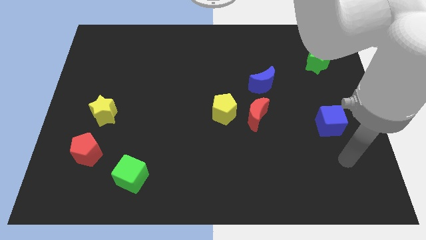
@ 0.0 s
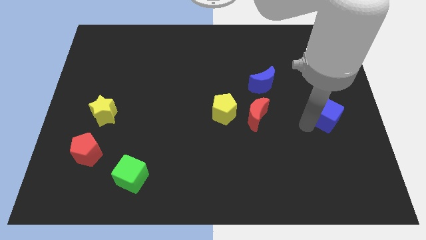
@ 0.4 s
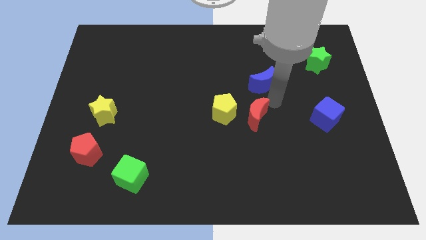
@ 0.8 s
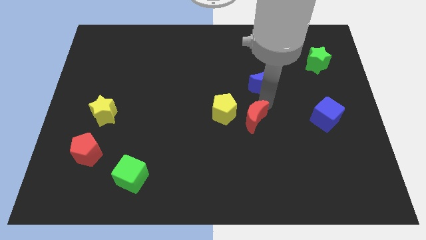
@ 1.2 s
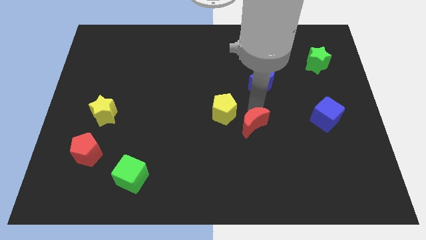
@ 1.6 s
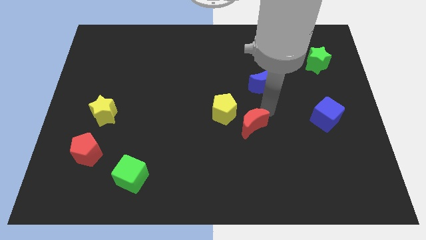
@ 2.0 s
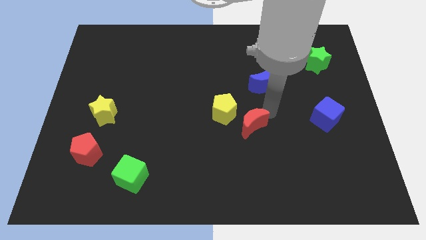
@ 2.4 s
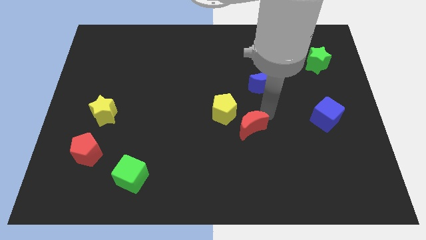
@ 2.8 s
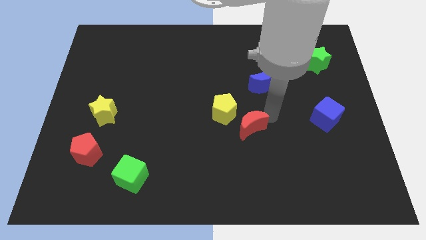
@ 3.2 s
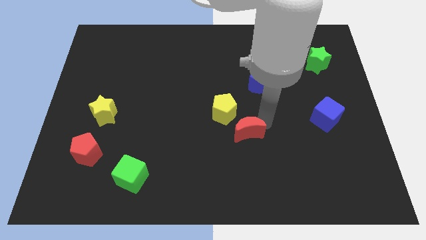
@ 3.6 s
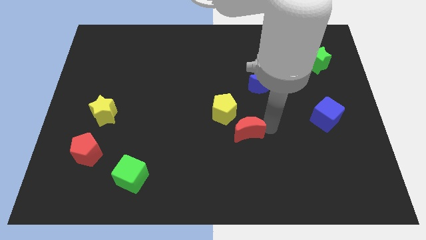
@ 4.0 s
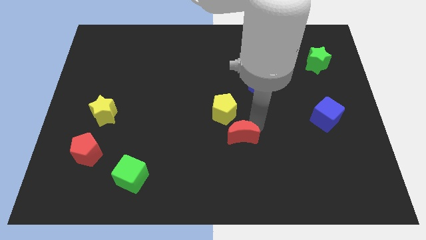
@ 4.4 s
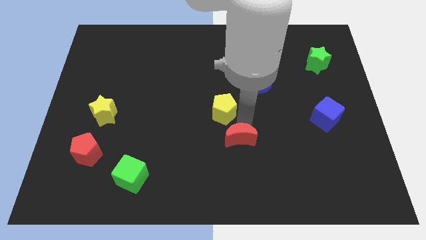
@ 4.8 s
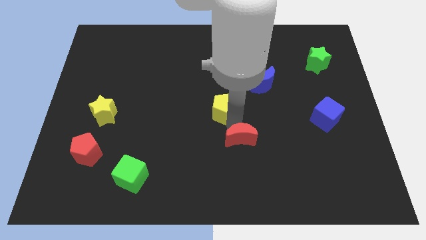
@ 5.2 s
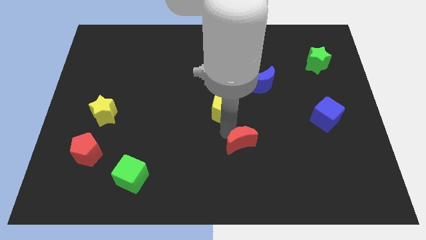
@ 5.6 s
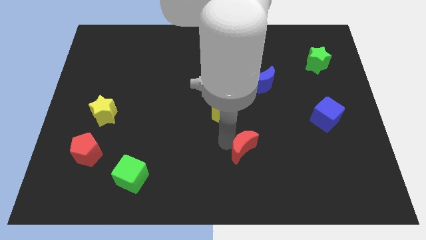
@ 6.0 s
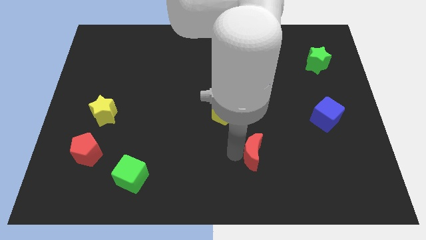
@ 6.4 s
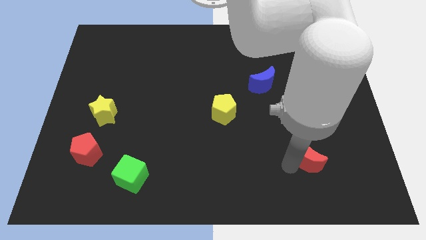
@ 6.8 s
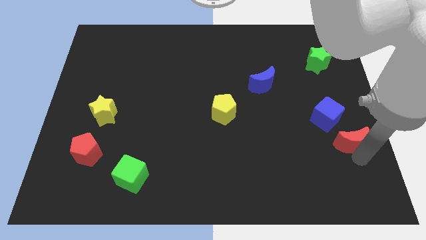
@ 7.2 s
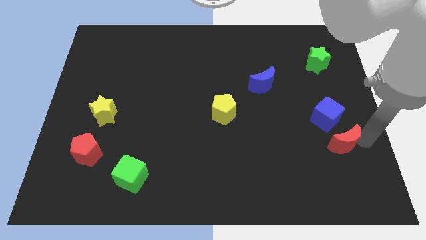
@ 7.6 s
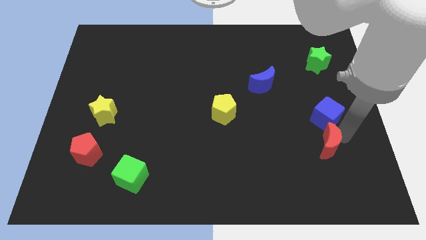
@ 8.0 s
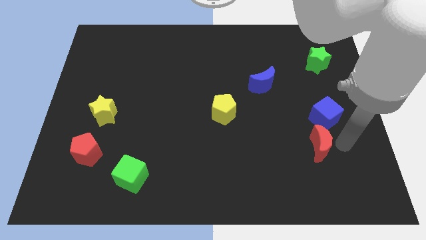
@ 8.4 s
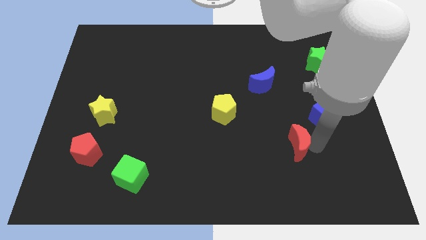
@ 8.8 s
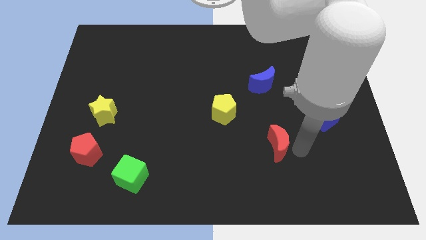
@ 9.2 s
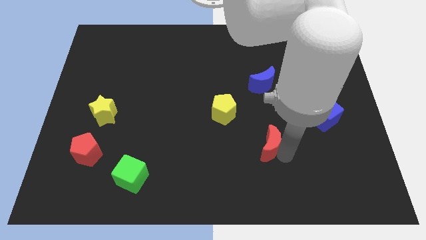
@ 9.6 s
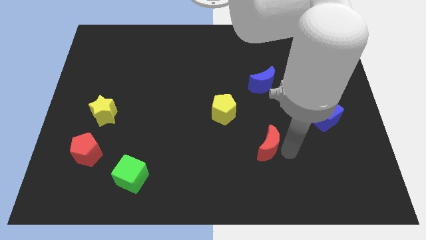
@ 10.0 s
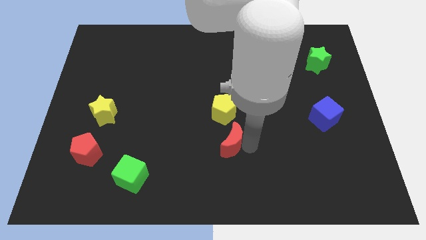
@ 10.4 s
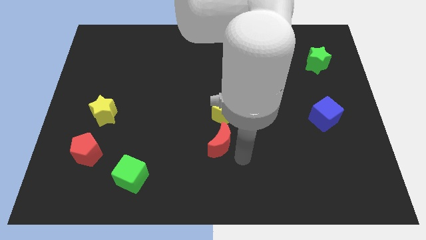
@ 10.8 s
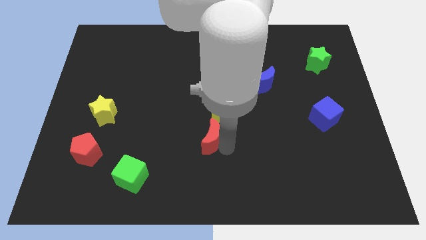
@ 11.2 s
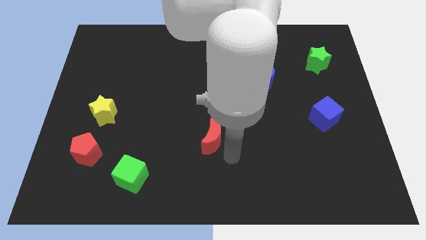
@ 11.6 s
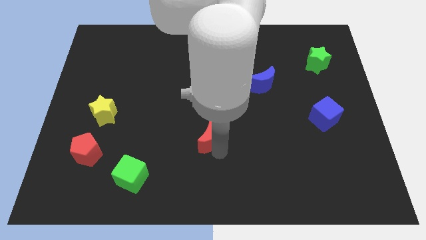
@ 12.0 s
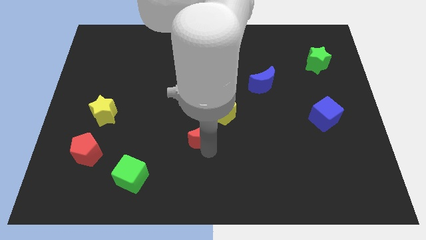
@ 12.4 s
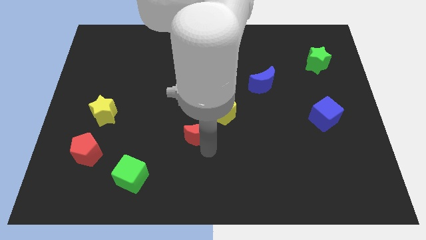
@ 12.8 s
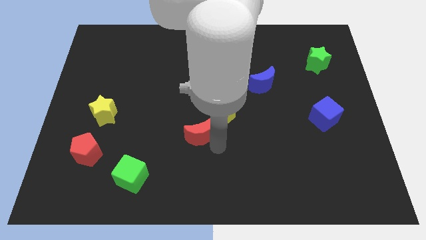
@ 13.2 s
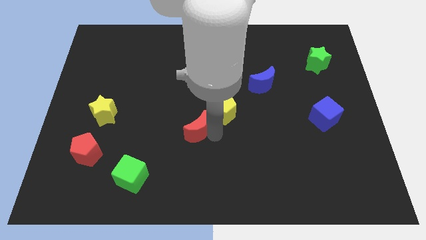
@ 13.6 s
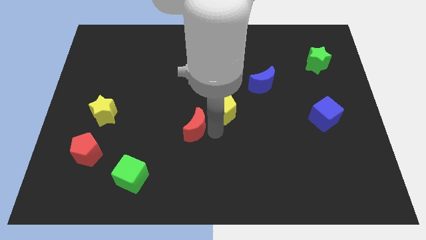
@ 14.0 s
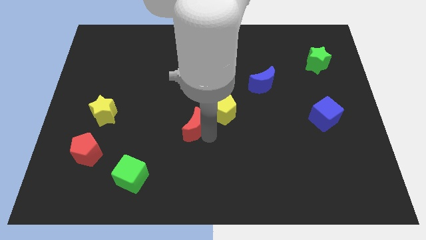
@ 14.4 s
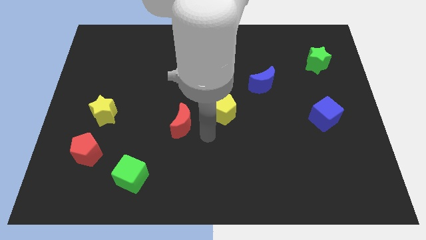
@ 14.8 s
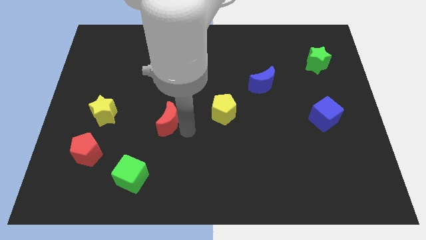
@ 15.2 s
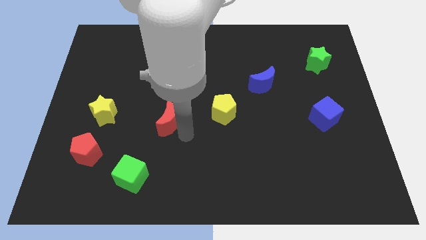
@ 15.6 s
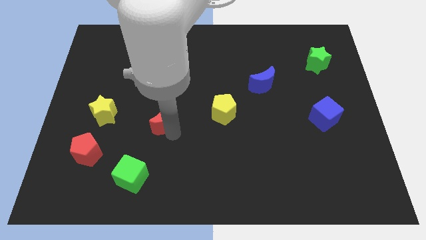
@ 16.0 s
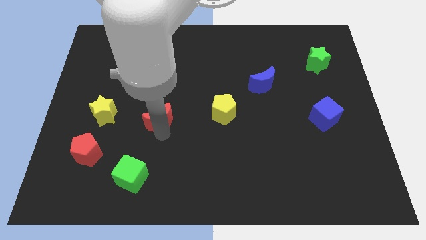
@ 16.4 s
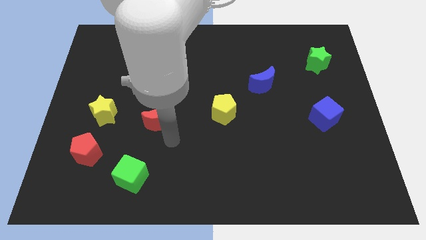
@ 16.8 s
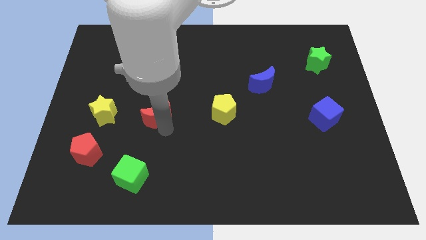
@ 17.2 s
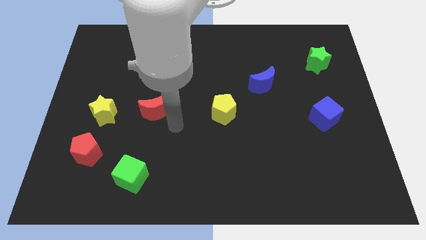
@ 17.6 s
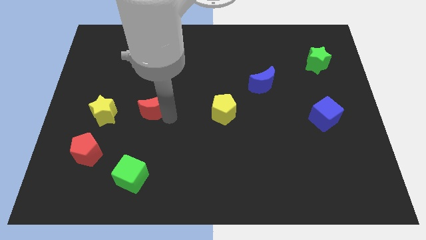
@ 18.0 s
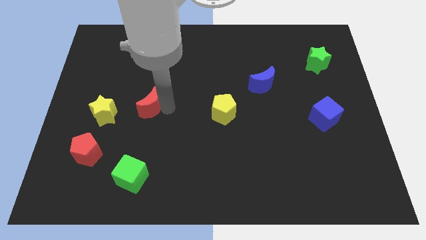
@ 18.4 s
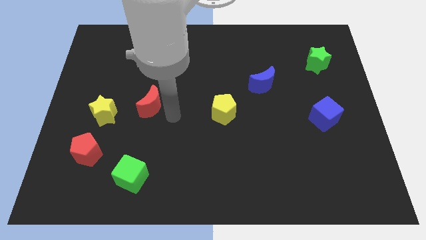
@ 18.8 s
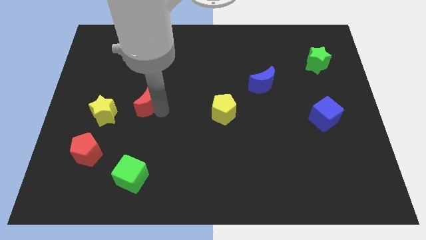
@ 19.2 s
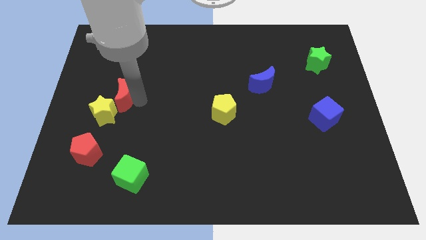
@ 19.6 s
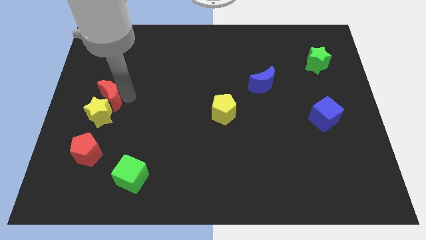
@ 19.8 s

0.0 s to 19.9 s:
put the red moon to the top side of the red pentagon

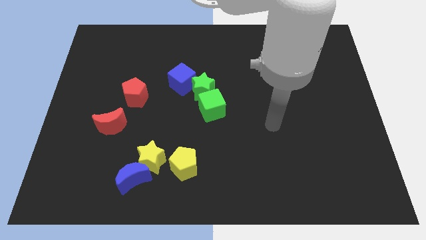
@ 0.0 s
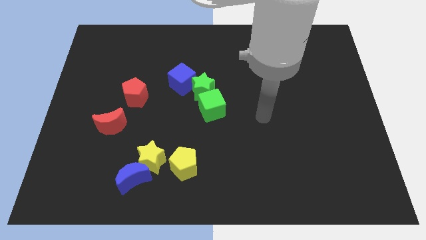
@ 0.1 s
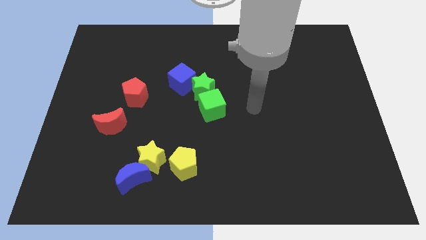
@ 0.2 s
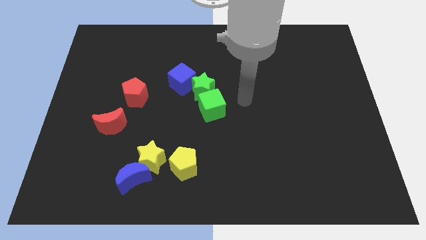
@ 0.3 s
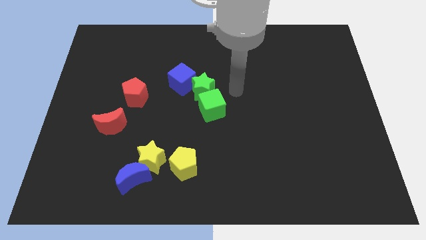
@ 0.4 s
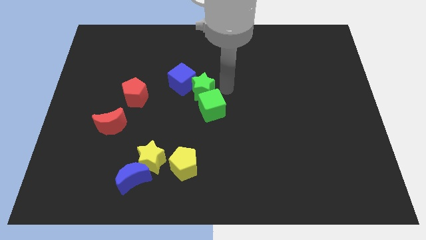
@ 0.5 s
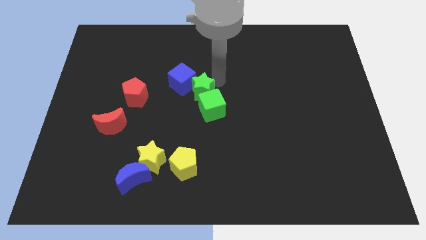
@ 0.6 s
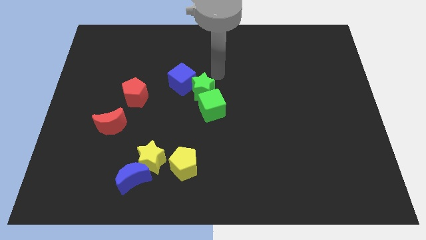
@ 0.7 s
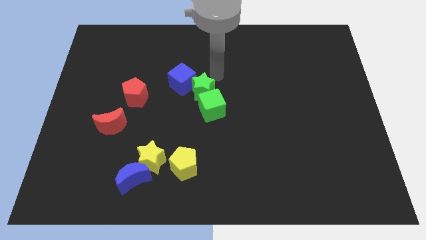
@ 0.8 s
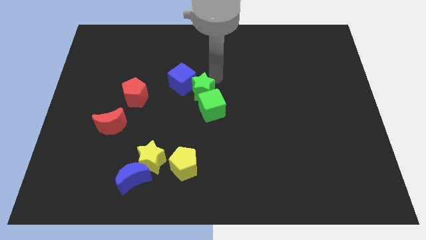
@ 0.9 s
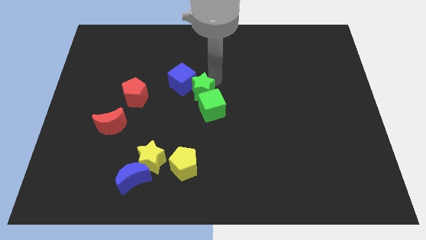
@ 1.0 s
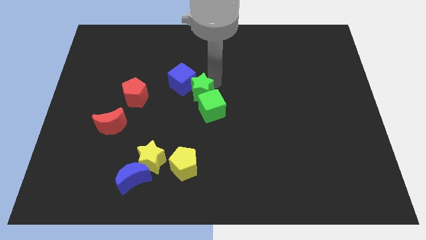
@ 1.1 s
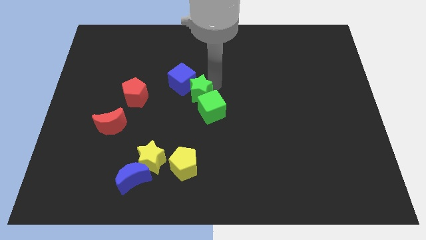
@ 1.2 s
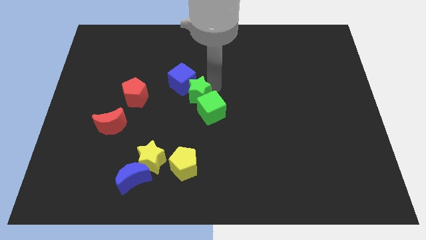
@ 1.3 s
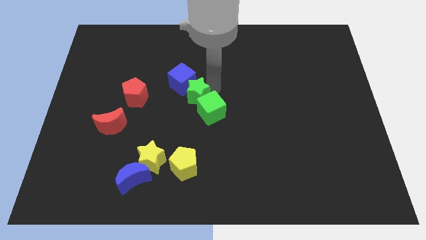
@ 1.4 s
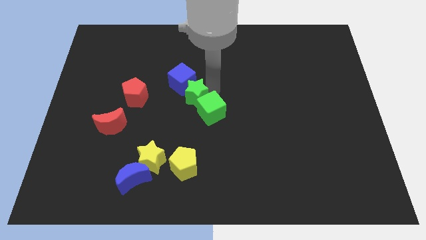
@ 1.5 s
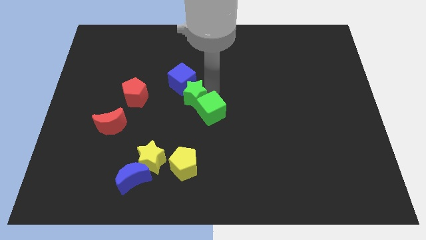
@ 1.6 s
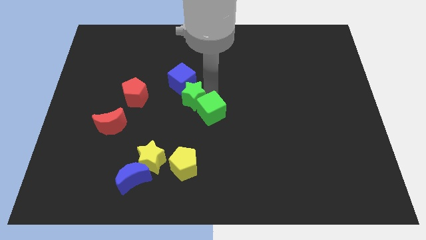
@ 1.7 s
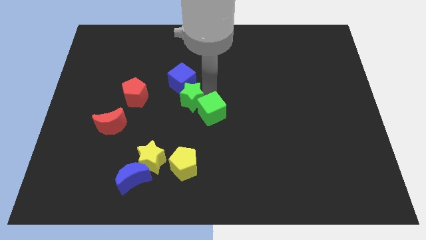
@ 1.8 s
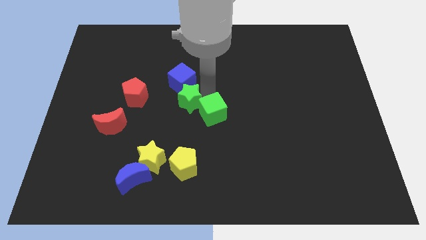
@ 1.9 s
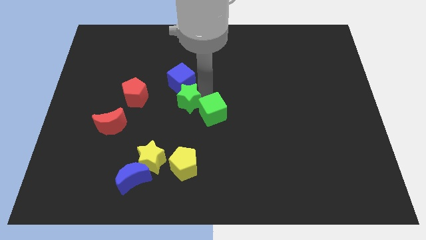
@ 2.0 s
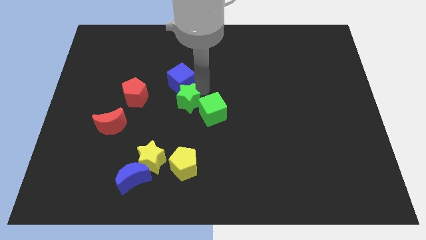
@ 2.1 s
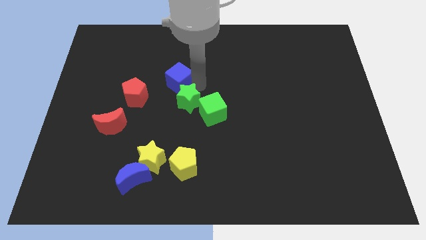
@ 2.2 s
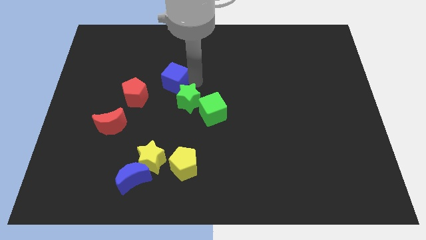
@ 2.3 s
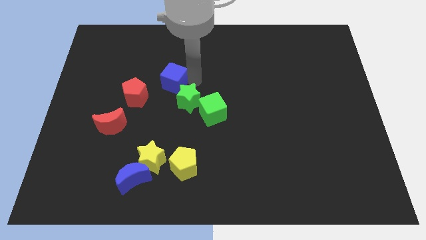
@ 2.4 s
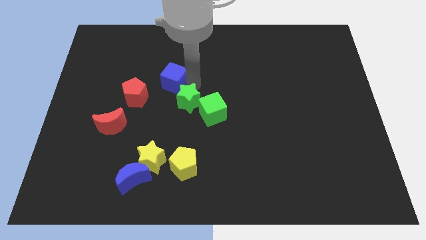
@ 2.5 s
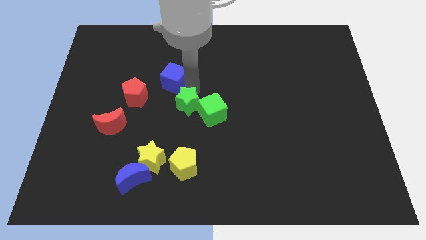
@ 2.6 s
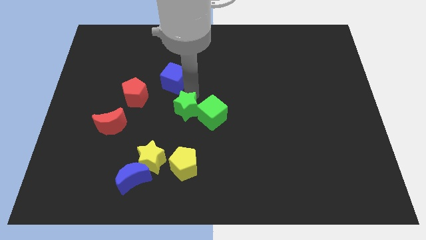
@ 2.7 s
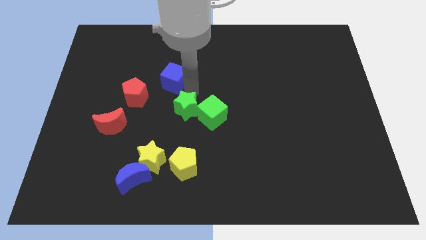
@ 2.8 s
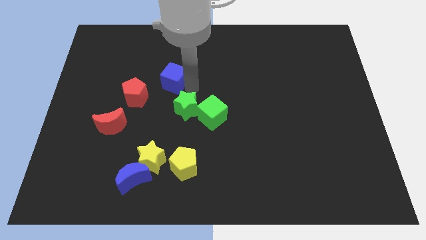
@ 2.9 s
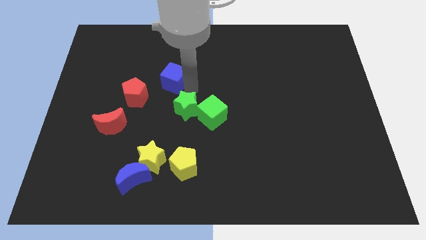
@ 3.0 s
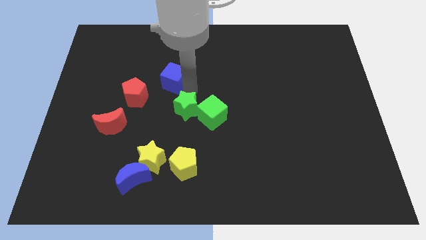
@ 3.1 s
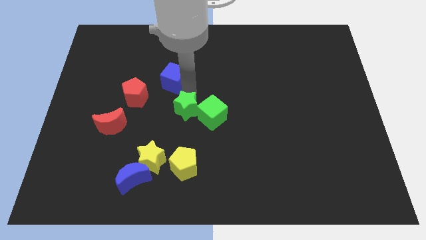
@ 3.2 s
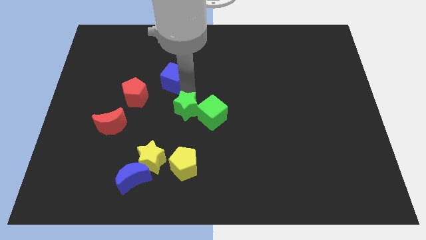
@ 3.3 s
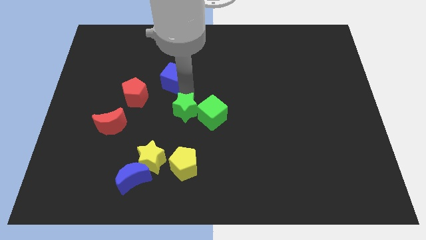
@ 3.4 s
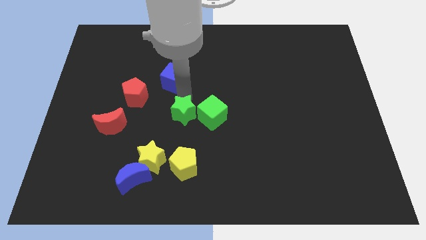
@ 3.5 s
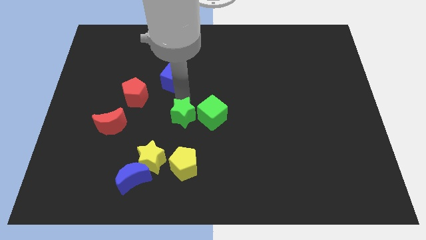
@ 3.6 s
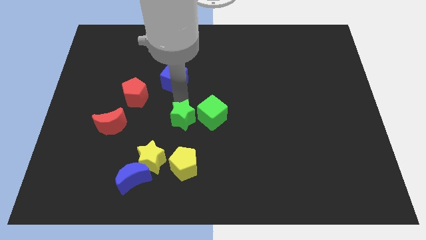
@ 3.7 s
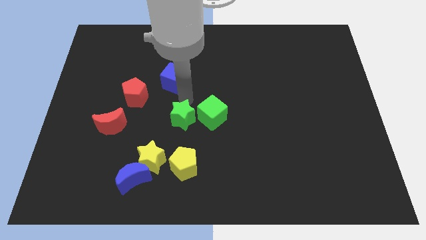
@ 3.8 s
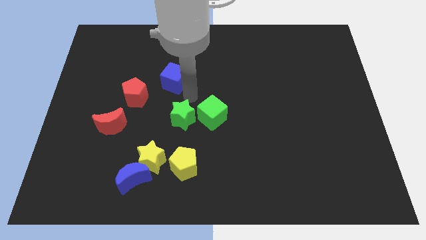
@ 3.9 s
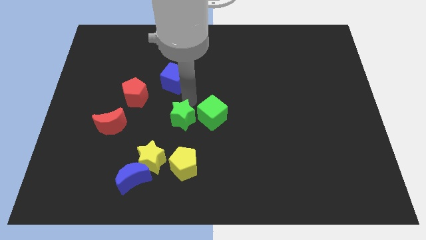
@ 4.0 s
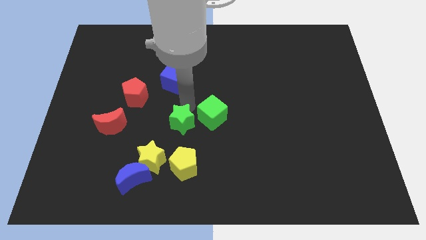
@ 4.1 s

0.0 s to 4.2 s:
slide the green star to the top right side of the yellow star
